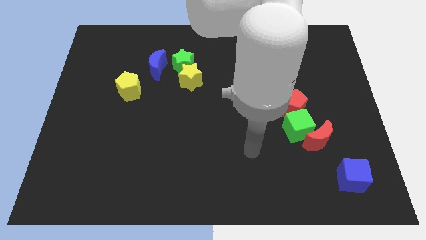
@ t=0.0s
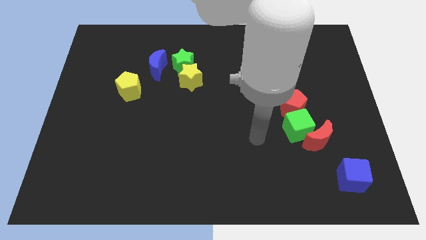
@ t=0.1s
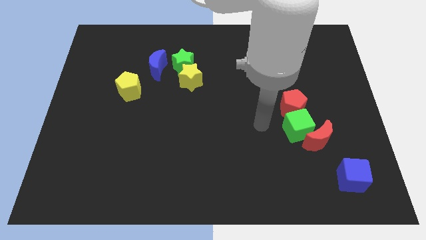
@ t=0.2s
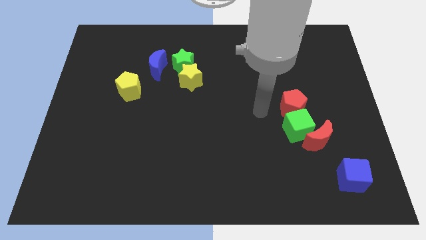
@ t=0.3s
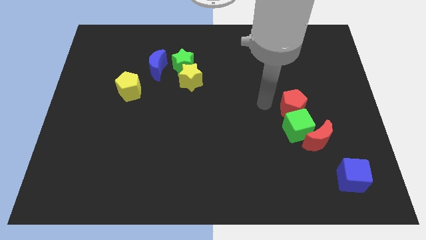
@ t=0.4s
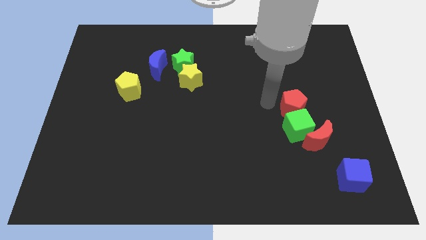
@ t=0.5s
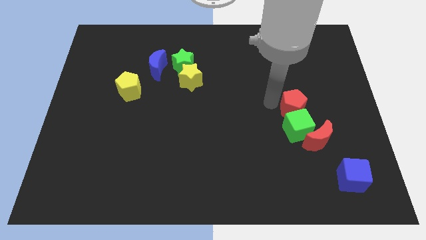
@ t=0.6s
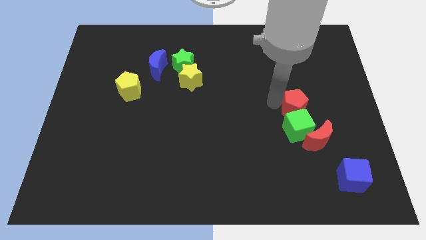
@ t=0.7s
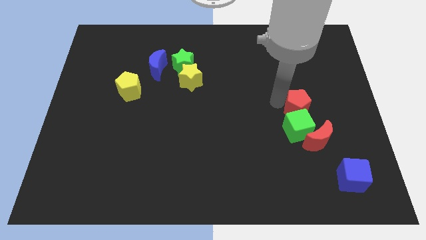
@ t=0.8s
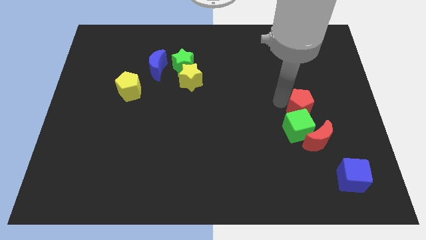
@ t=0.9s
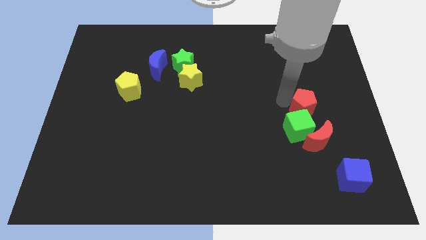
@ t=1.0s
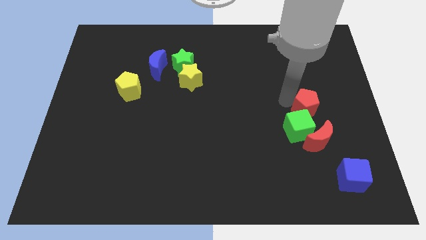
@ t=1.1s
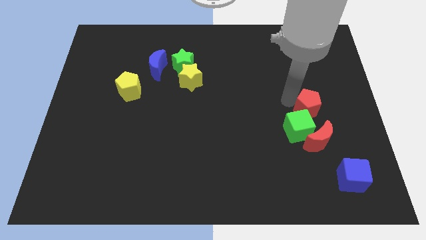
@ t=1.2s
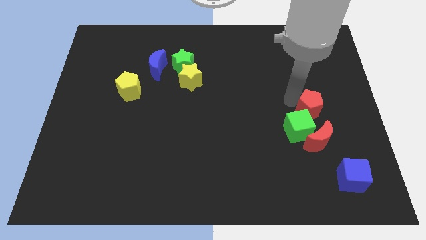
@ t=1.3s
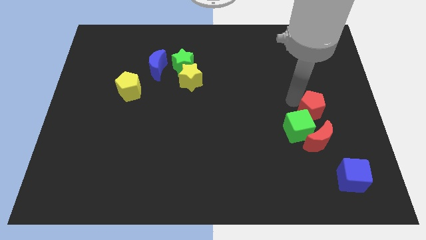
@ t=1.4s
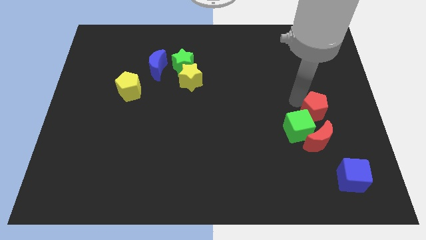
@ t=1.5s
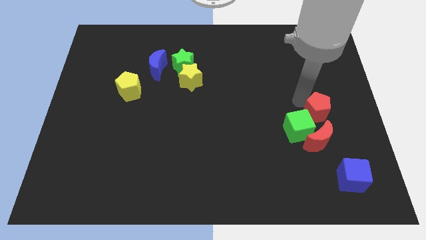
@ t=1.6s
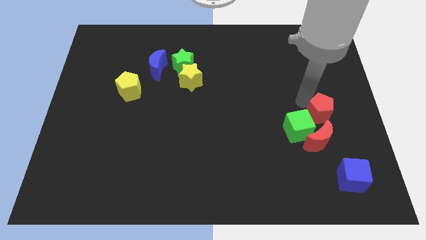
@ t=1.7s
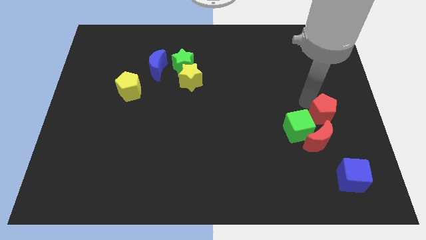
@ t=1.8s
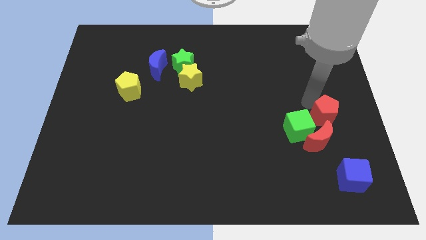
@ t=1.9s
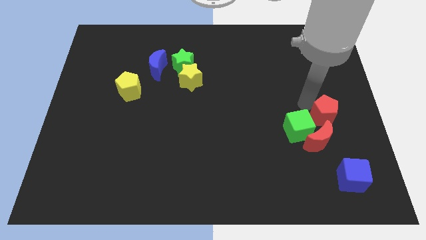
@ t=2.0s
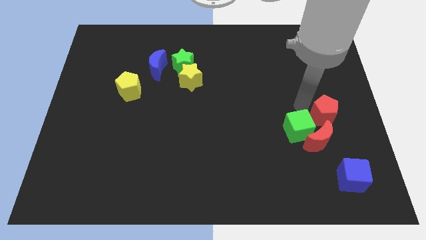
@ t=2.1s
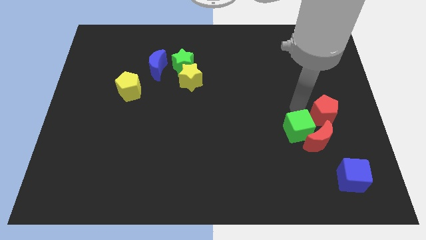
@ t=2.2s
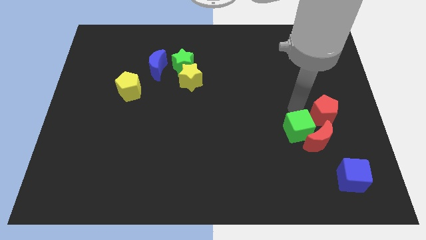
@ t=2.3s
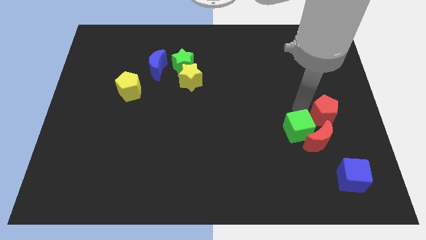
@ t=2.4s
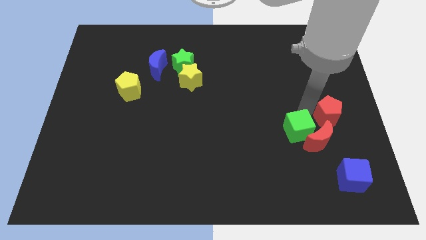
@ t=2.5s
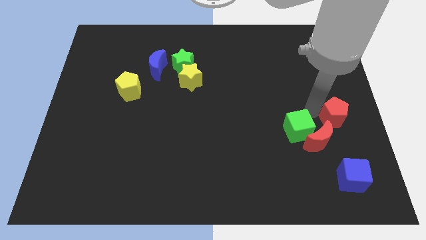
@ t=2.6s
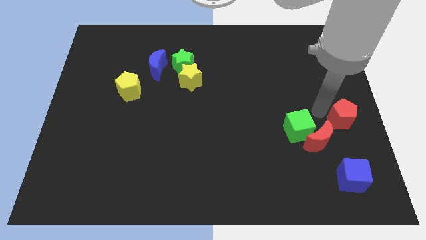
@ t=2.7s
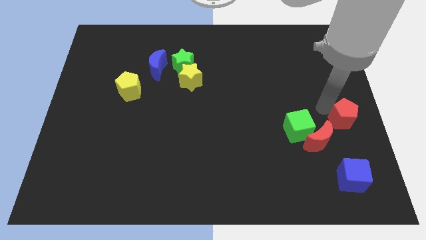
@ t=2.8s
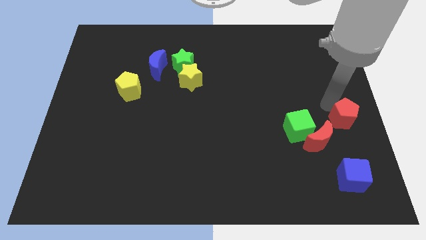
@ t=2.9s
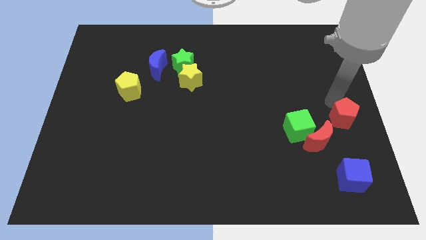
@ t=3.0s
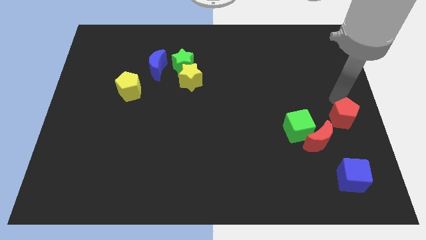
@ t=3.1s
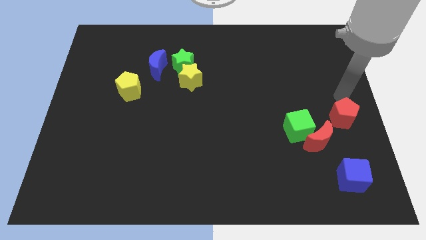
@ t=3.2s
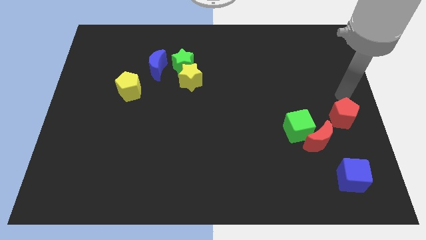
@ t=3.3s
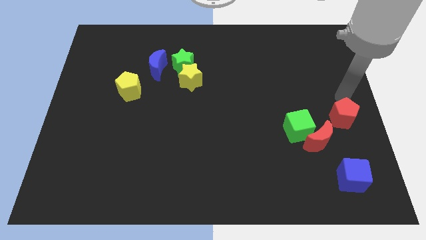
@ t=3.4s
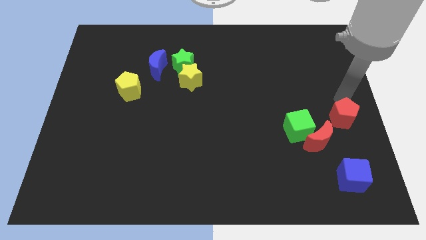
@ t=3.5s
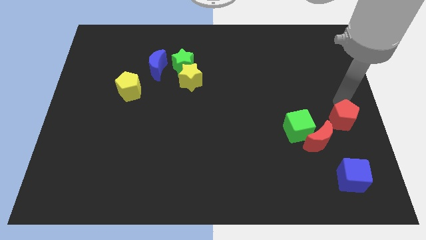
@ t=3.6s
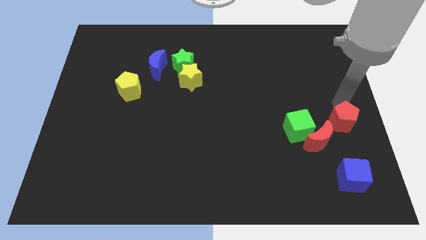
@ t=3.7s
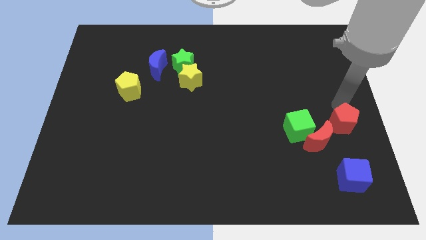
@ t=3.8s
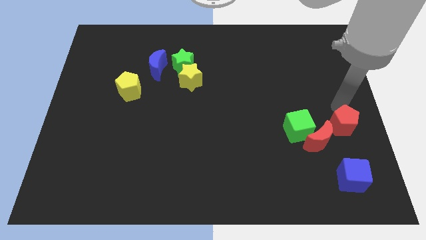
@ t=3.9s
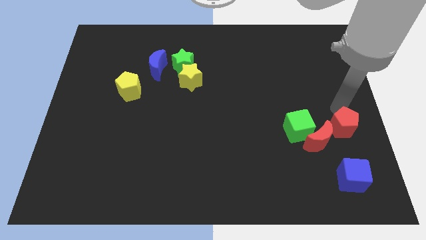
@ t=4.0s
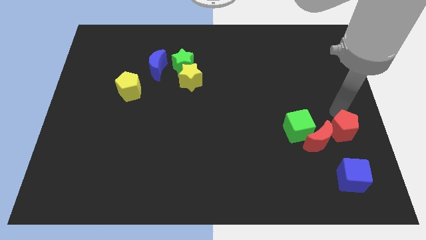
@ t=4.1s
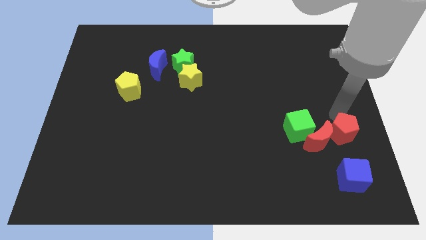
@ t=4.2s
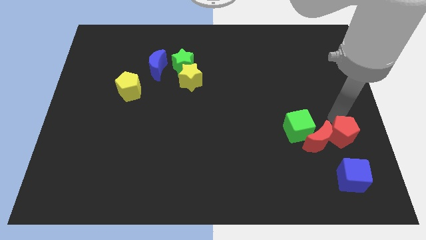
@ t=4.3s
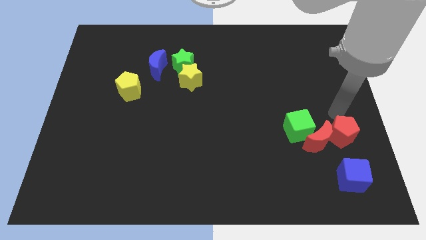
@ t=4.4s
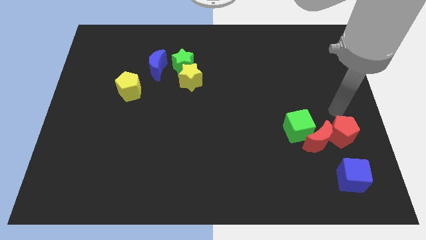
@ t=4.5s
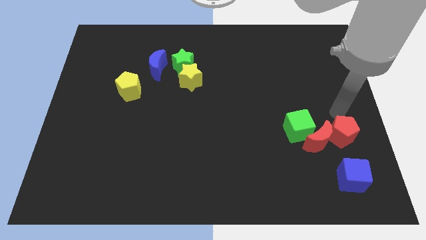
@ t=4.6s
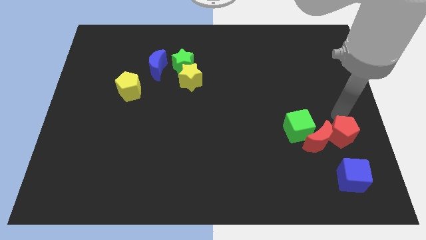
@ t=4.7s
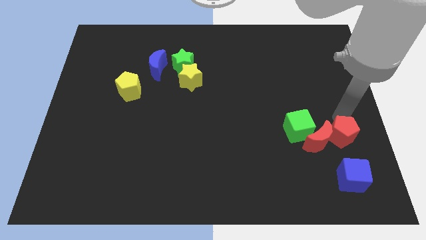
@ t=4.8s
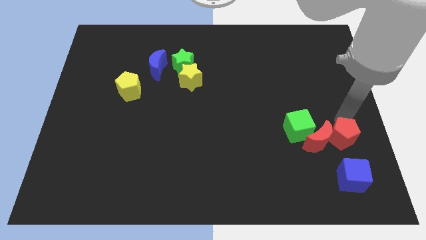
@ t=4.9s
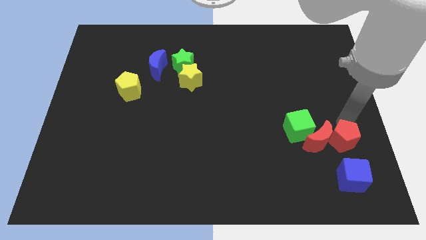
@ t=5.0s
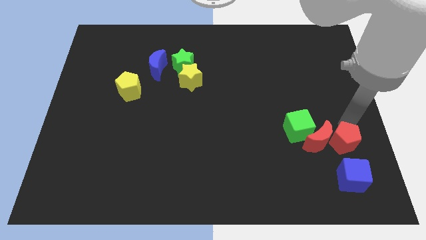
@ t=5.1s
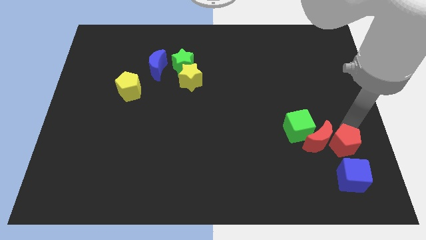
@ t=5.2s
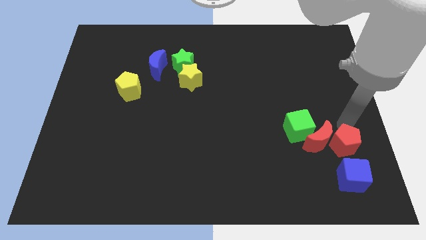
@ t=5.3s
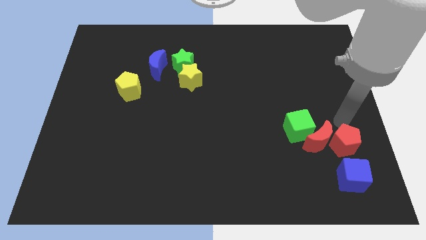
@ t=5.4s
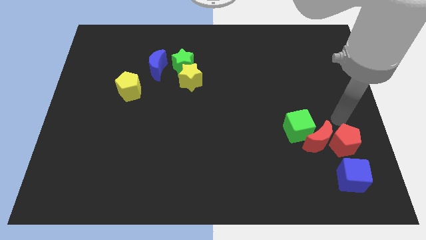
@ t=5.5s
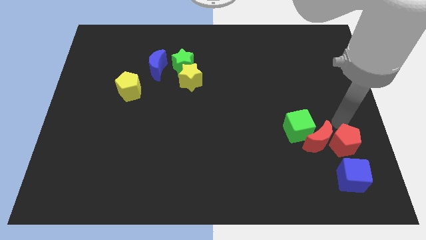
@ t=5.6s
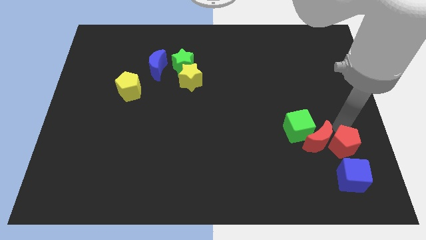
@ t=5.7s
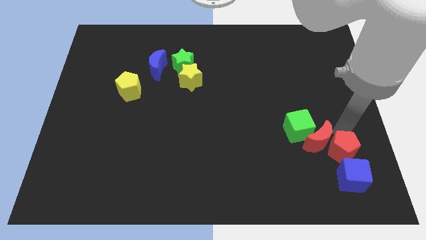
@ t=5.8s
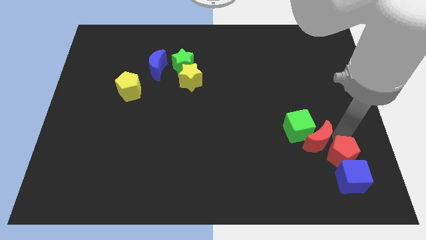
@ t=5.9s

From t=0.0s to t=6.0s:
slide the red pentagon next to the blue cube

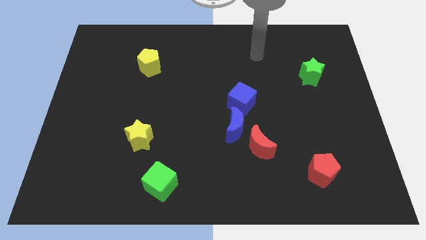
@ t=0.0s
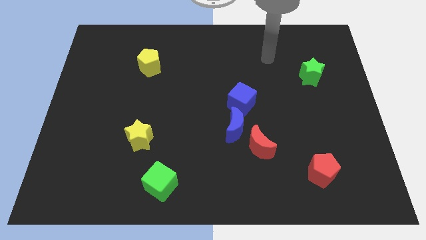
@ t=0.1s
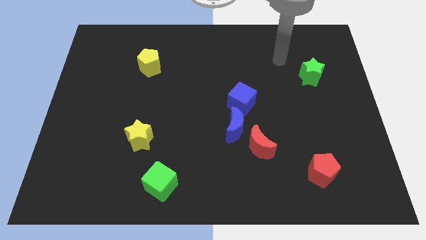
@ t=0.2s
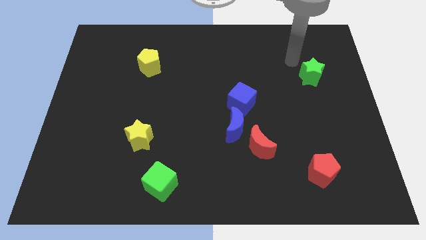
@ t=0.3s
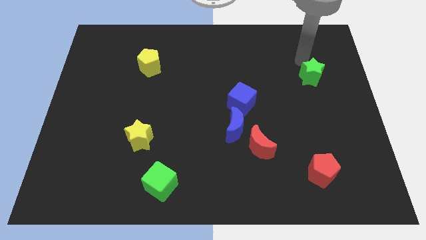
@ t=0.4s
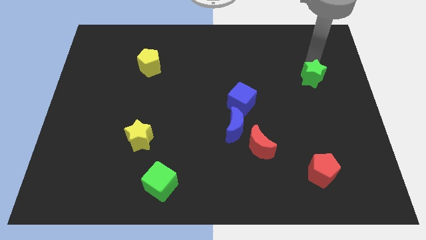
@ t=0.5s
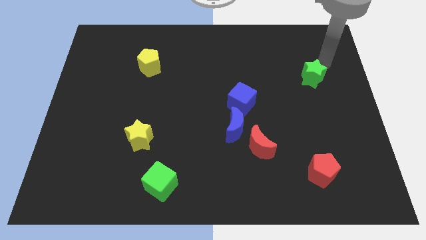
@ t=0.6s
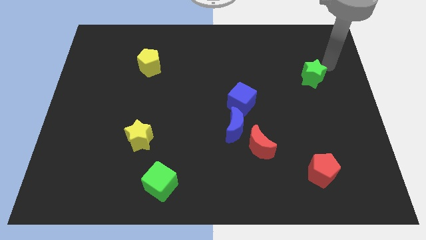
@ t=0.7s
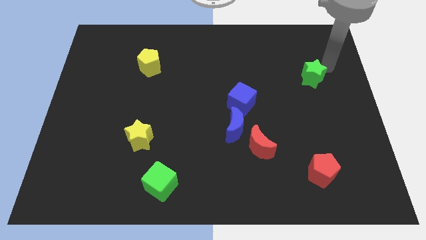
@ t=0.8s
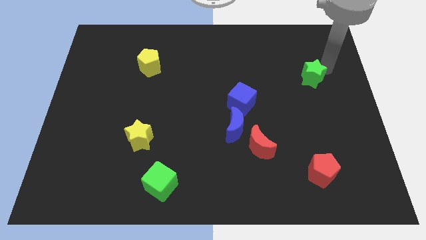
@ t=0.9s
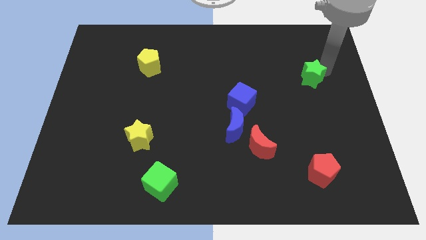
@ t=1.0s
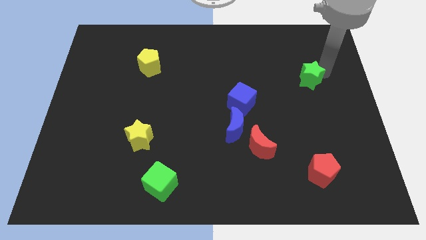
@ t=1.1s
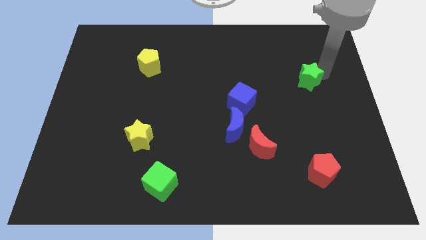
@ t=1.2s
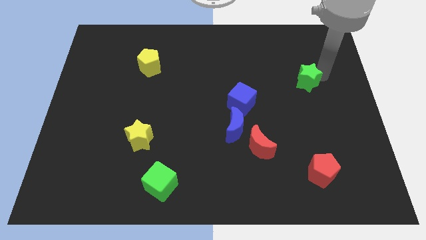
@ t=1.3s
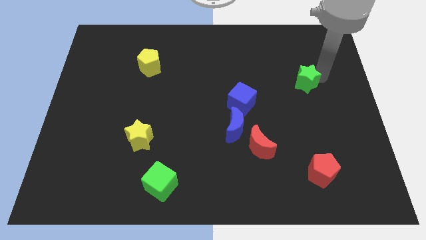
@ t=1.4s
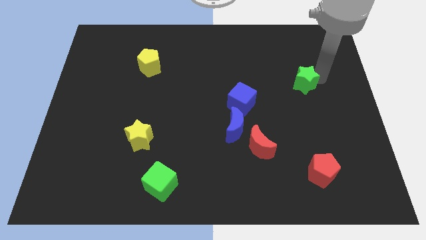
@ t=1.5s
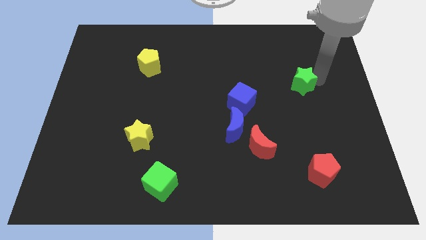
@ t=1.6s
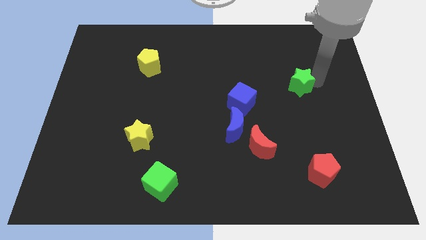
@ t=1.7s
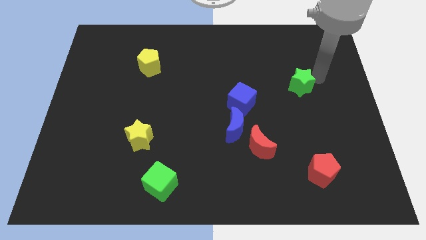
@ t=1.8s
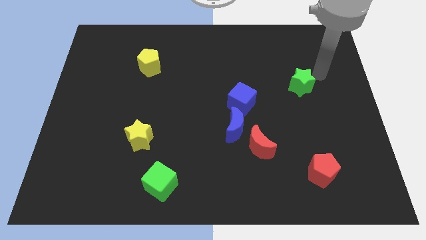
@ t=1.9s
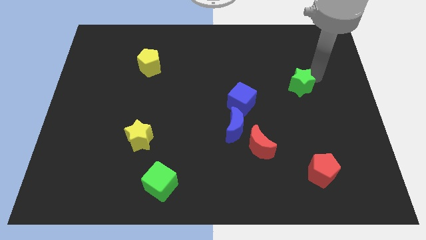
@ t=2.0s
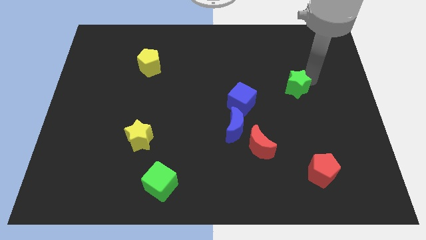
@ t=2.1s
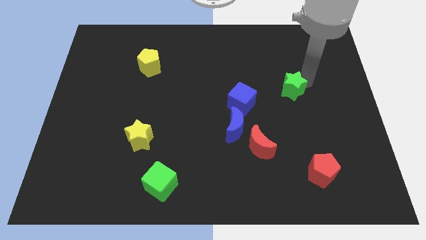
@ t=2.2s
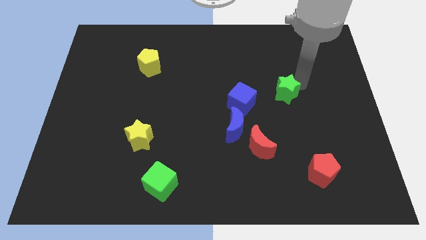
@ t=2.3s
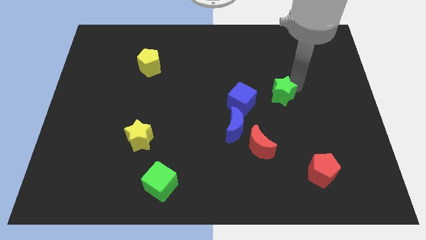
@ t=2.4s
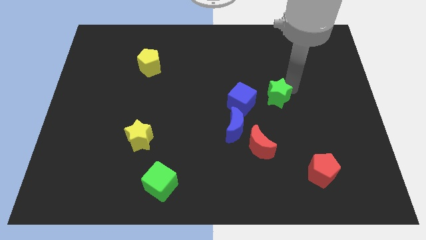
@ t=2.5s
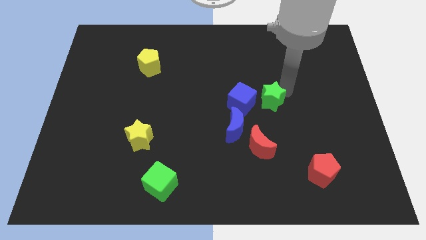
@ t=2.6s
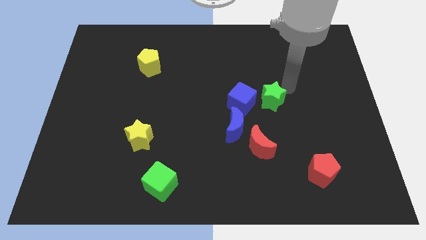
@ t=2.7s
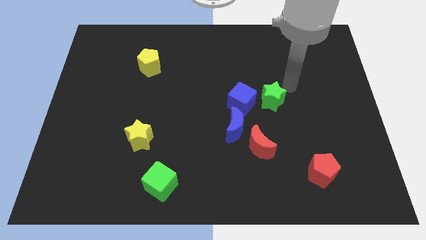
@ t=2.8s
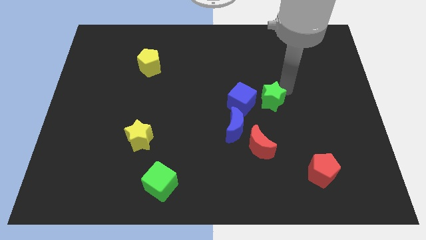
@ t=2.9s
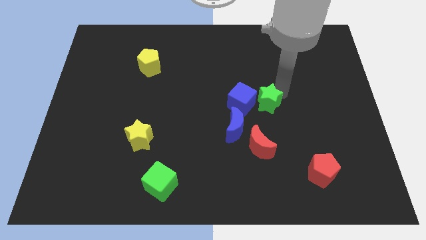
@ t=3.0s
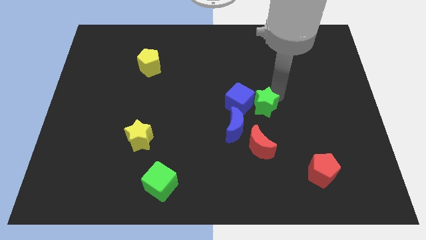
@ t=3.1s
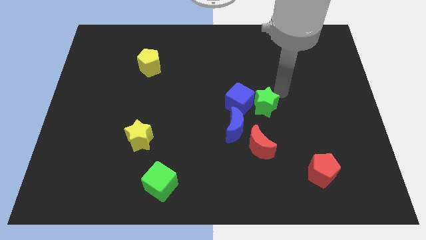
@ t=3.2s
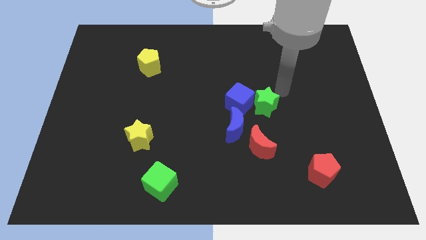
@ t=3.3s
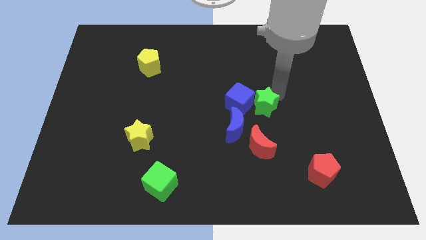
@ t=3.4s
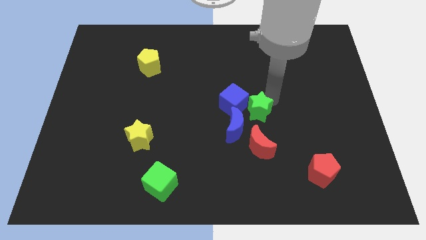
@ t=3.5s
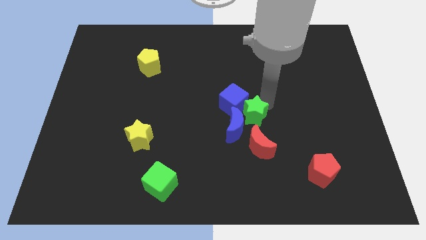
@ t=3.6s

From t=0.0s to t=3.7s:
move the green star towards the blue moon
